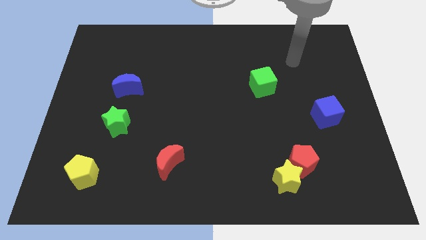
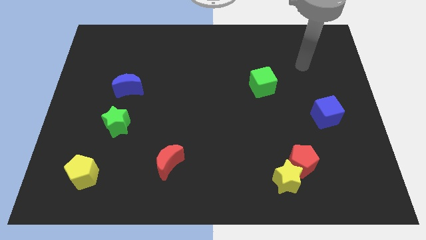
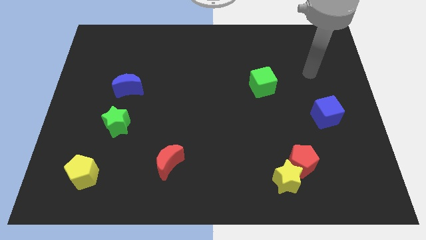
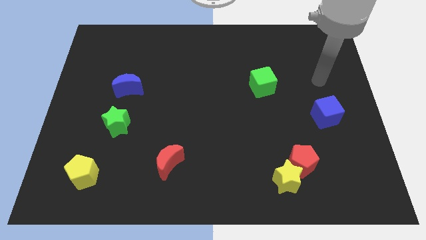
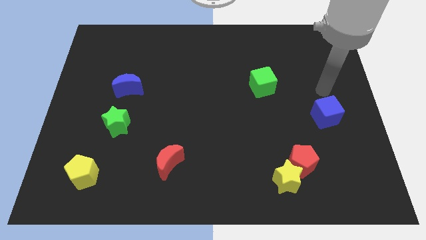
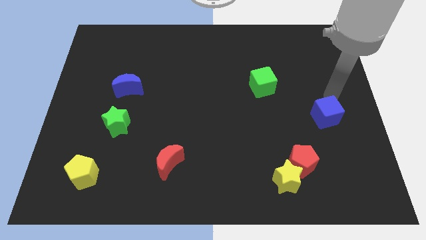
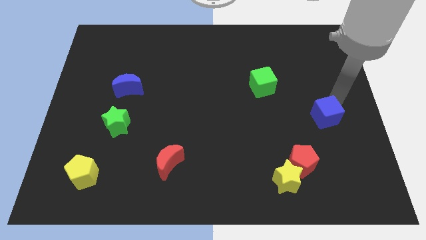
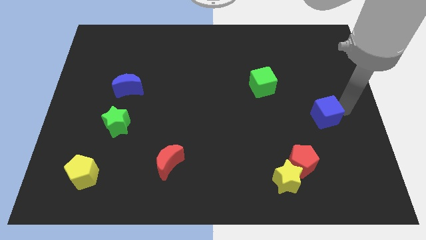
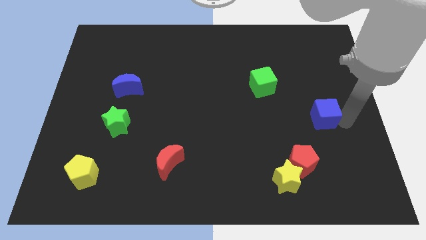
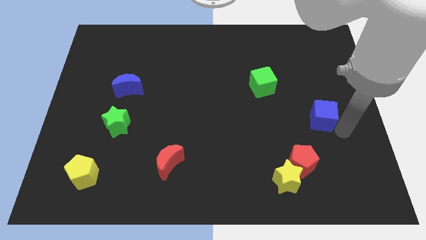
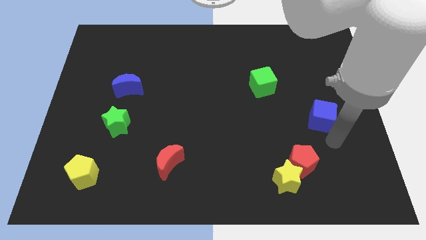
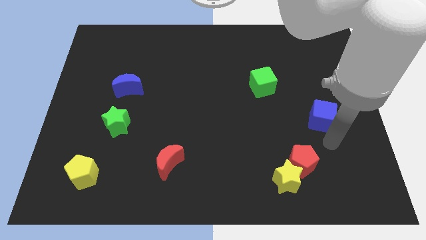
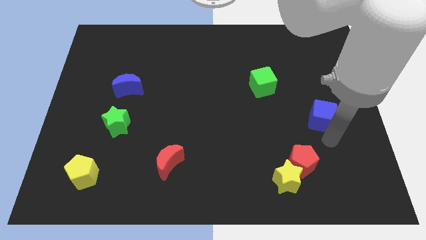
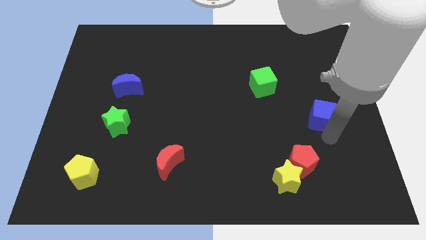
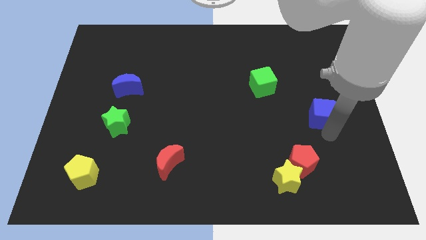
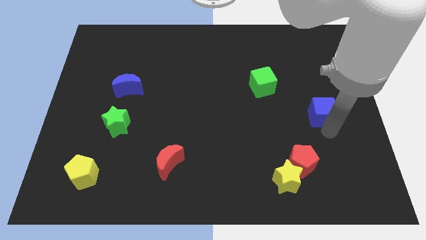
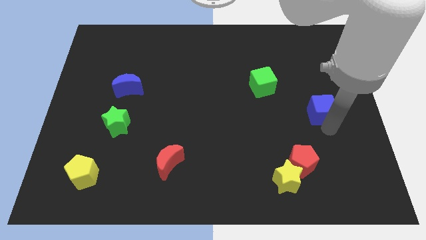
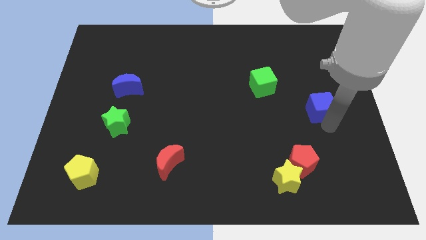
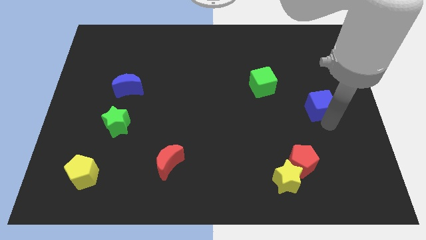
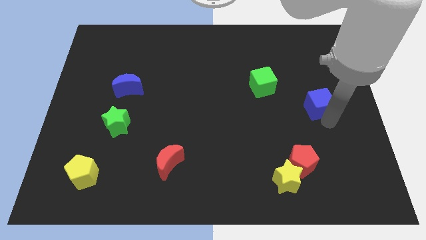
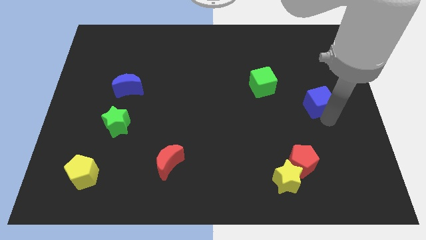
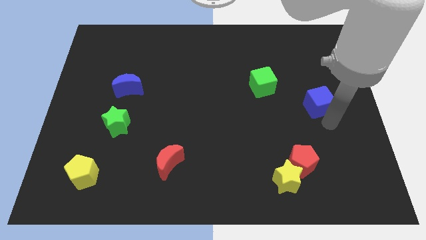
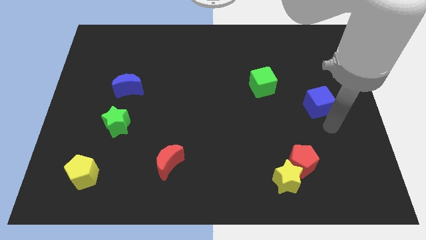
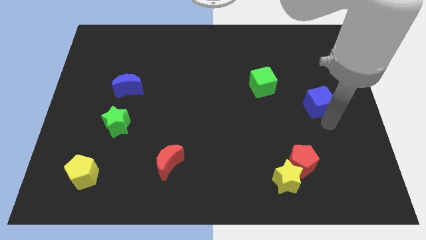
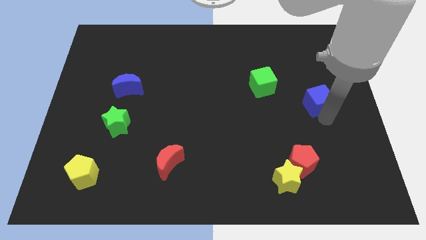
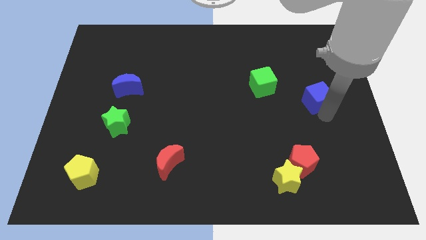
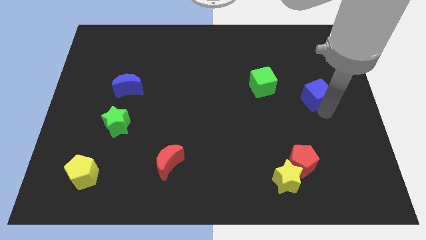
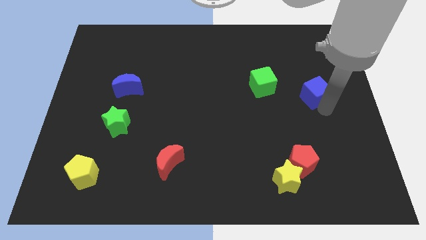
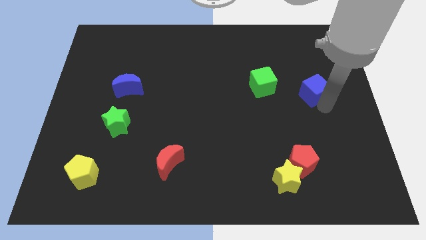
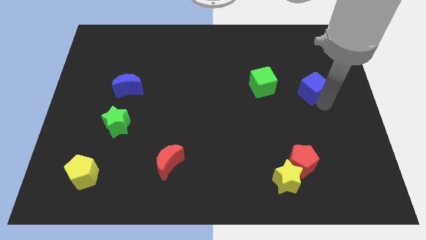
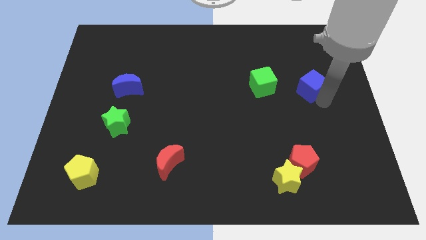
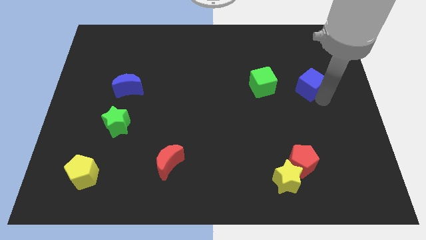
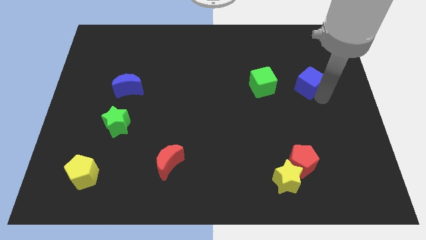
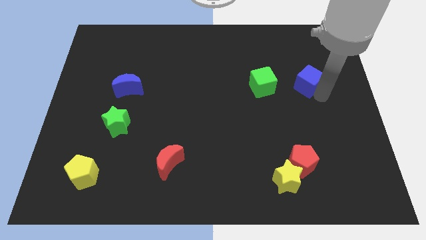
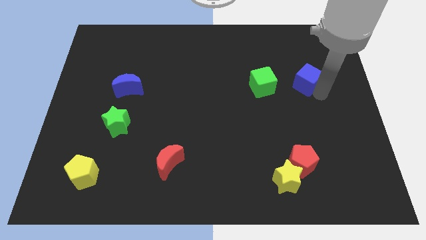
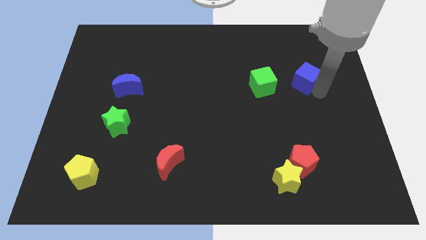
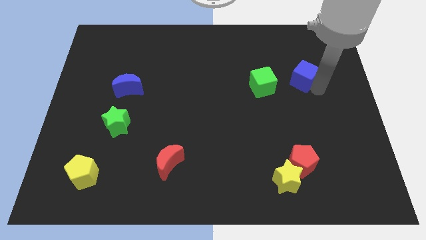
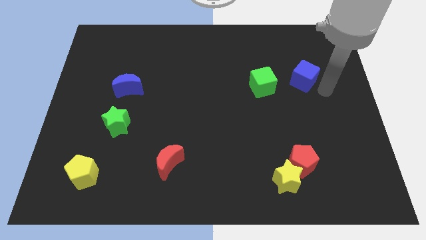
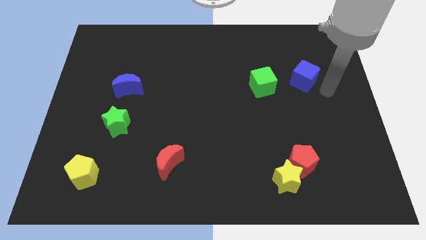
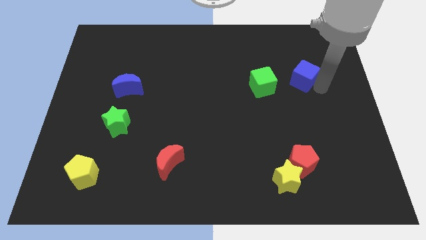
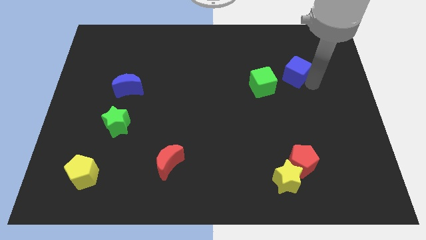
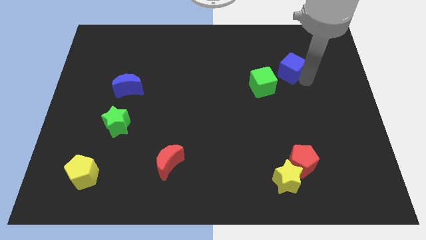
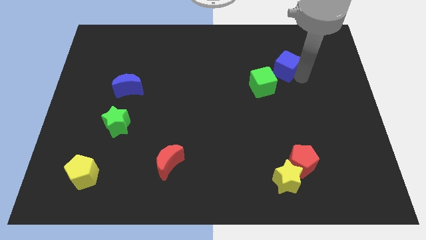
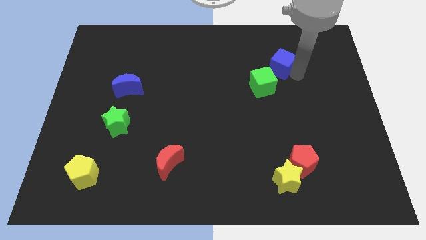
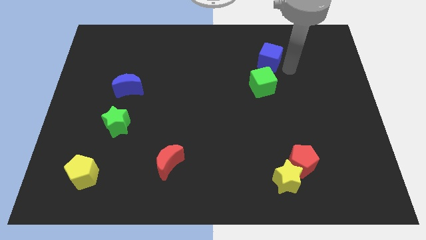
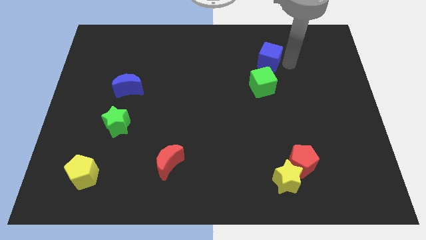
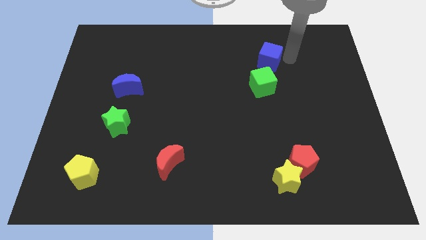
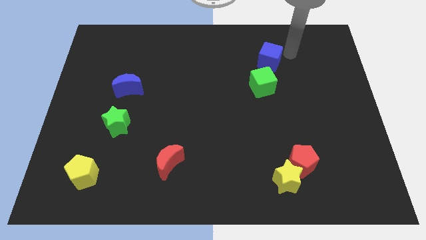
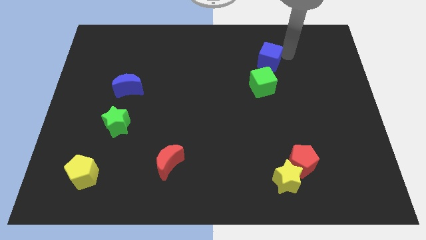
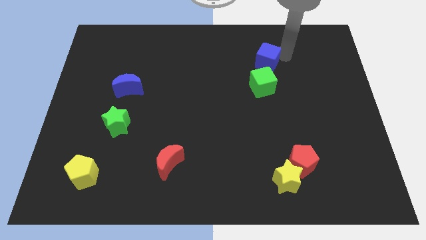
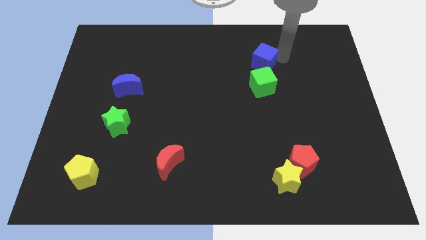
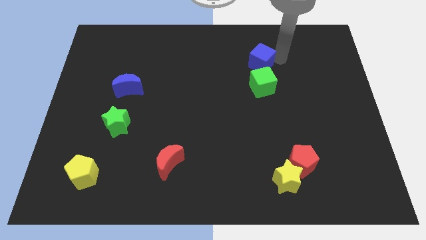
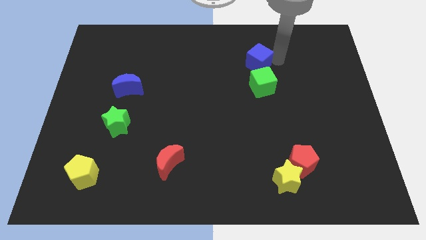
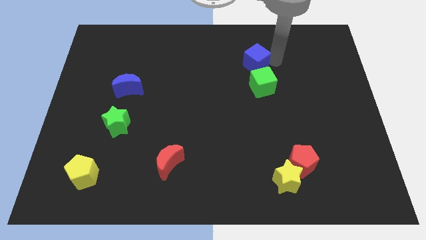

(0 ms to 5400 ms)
push the blue cube to the top left of the green cube

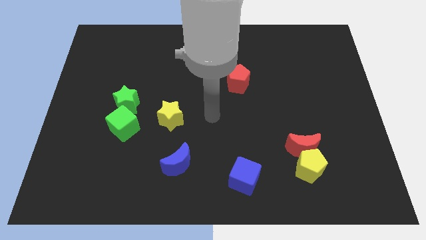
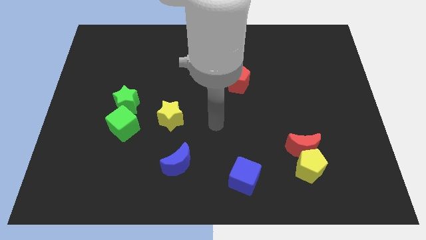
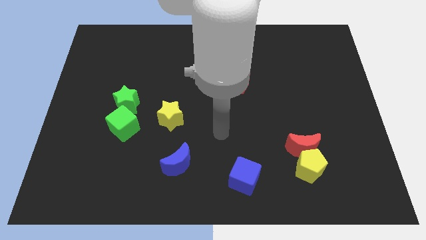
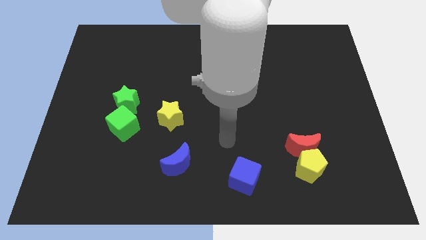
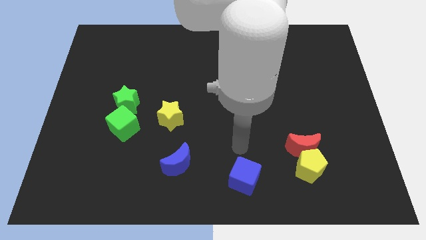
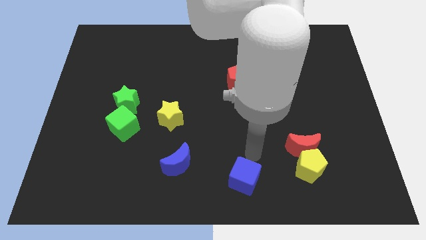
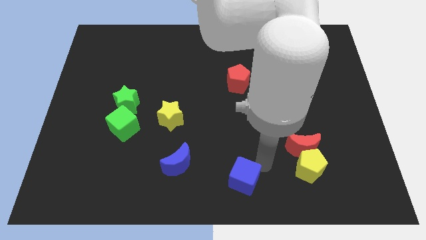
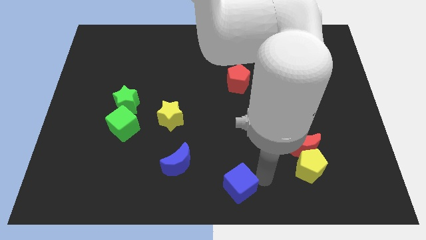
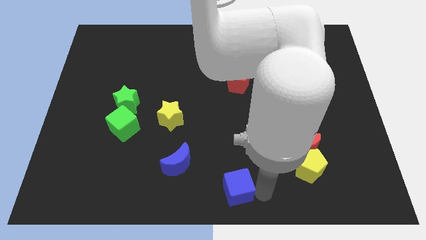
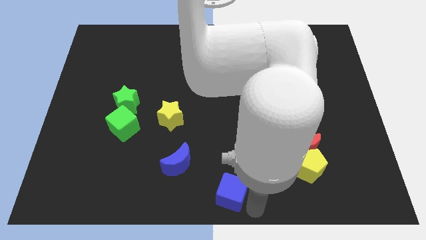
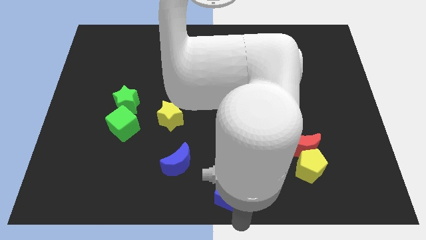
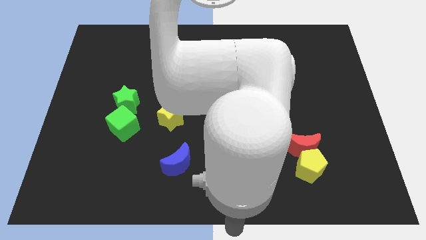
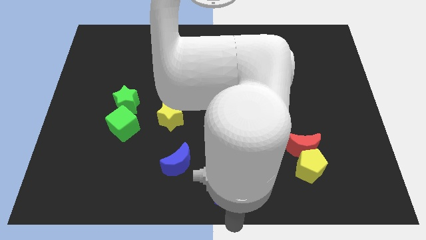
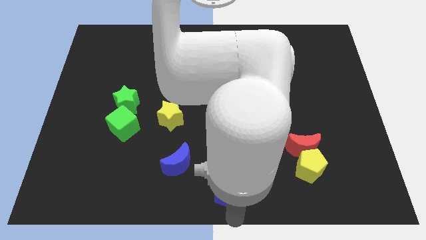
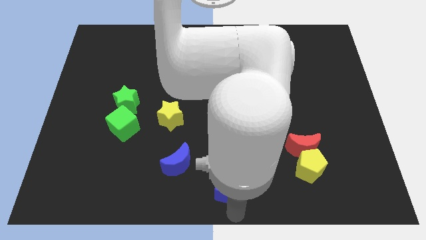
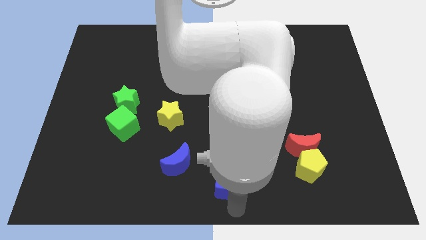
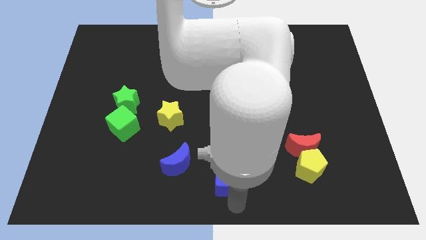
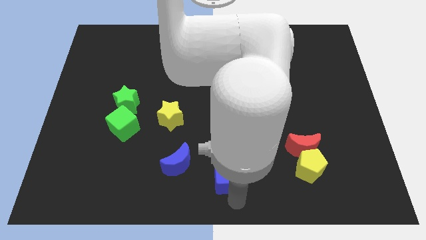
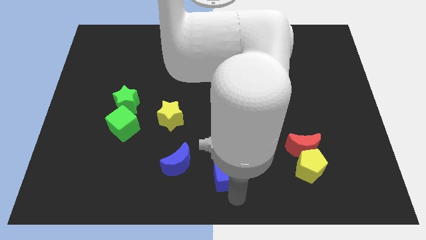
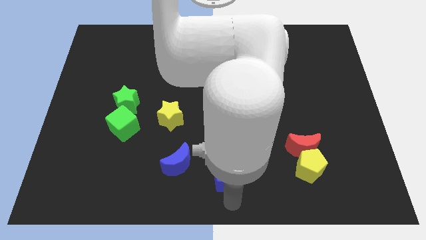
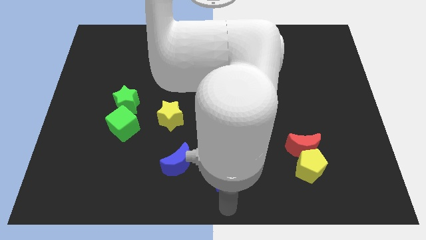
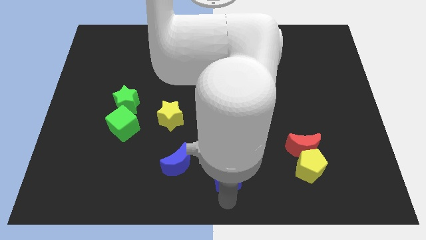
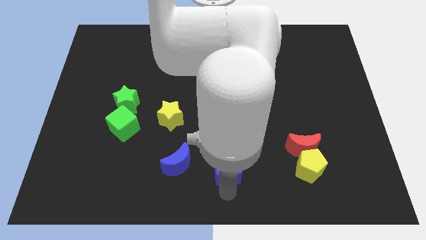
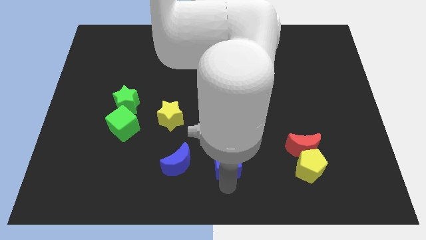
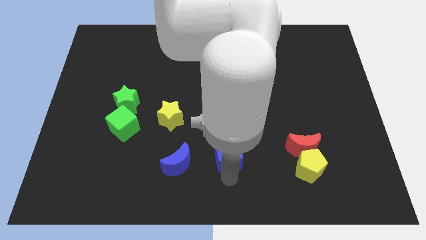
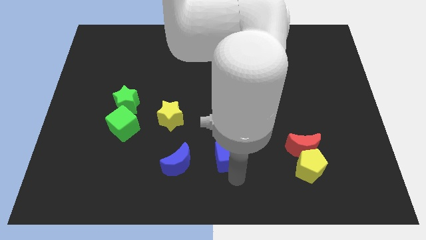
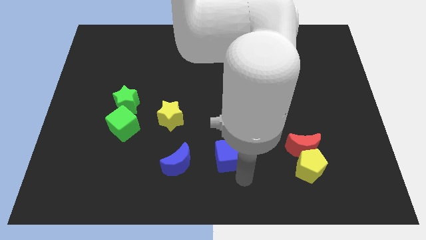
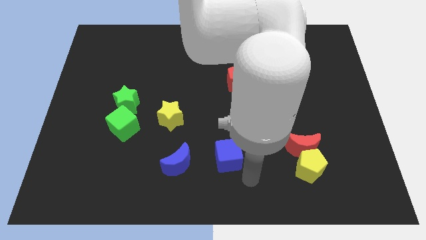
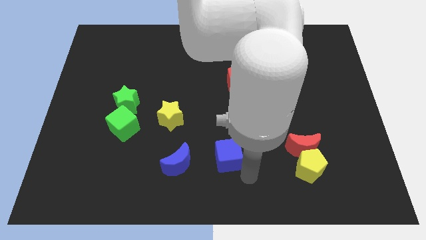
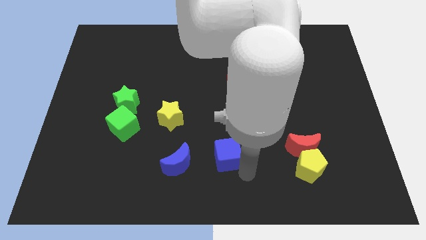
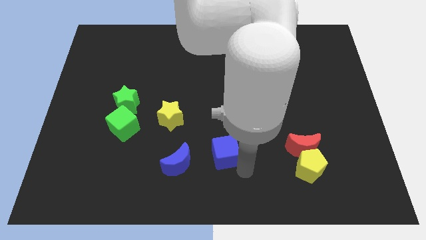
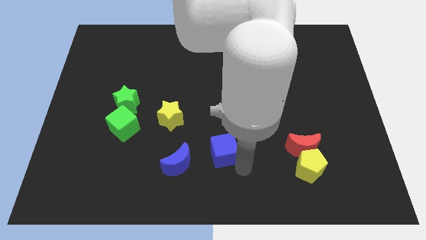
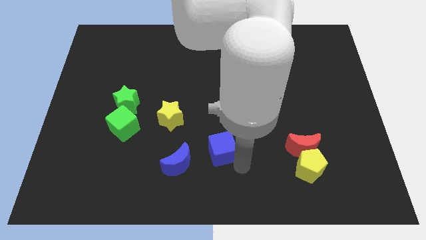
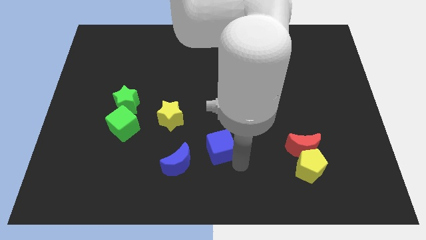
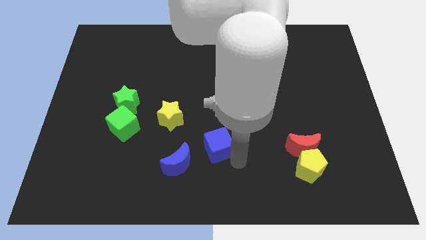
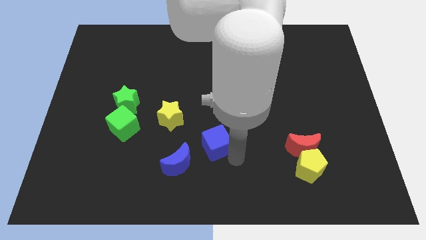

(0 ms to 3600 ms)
slide the blue cube diagonally down and to the right of the yellow star
